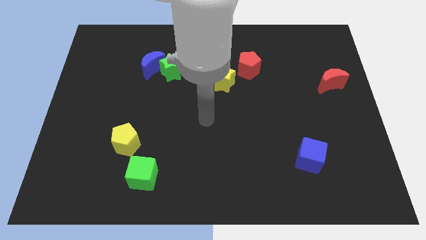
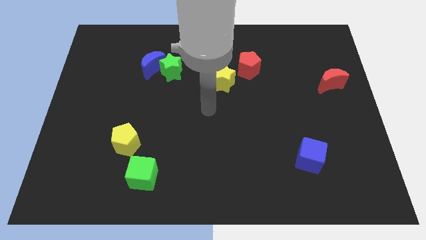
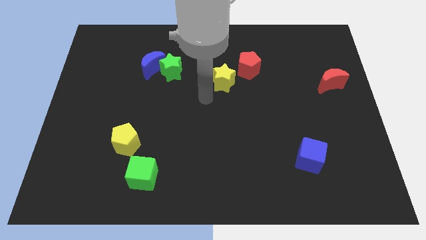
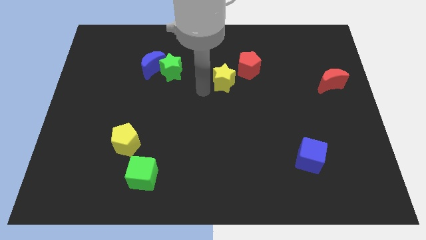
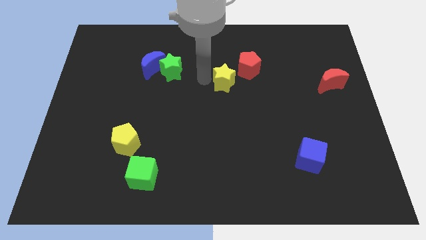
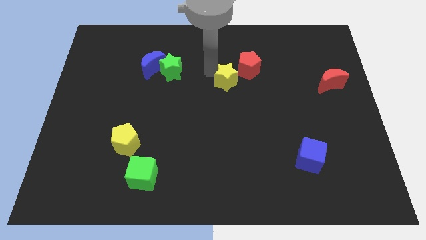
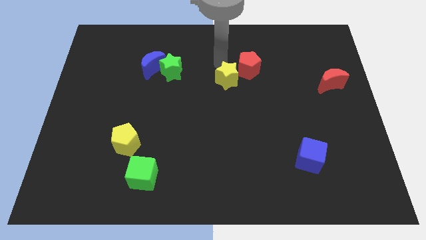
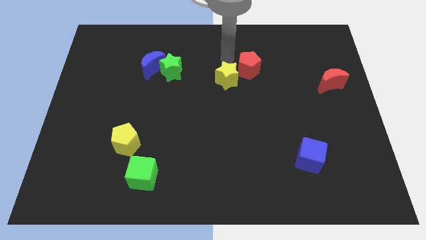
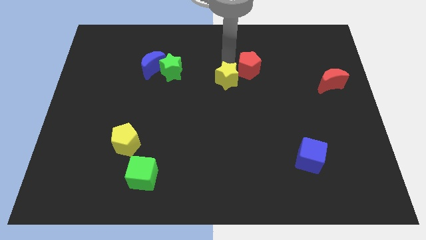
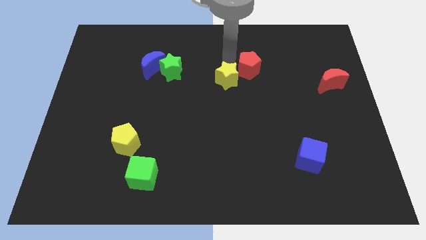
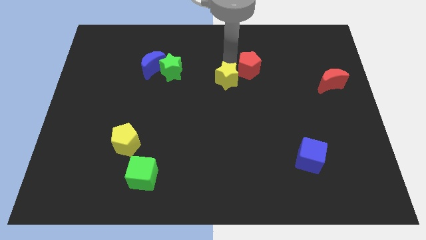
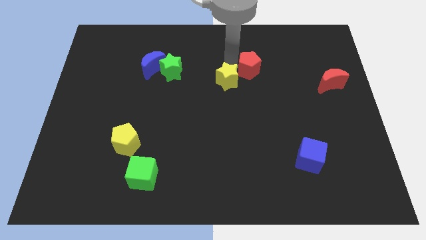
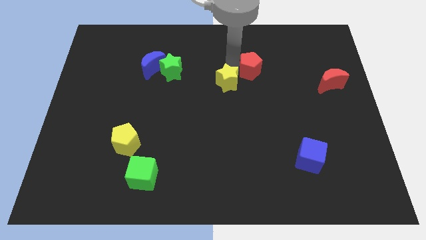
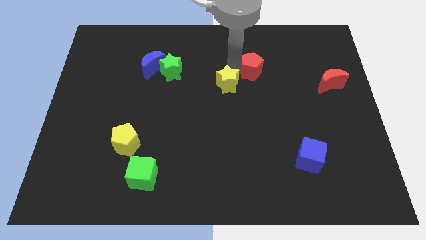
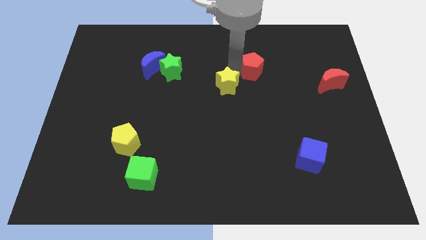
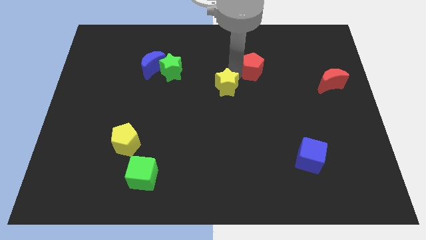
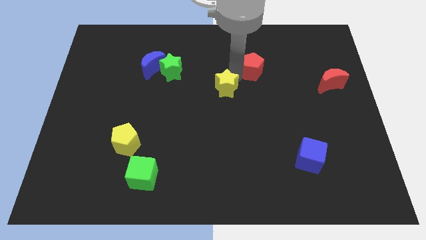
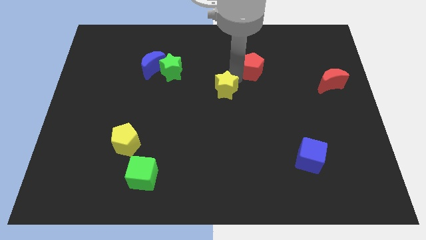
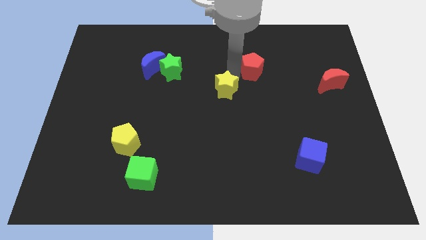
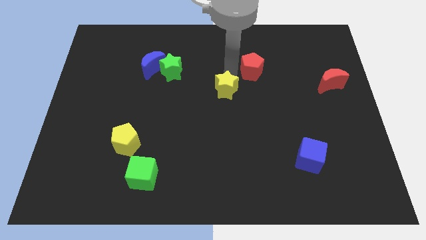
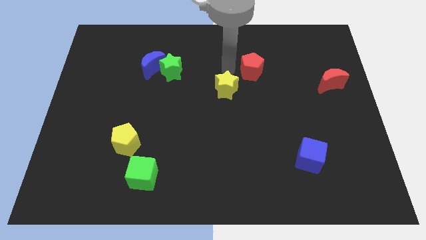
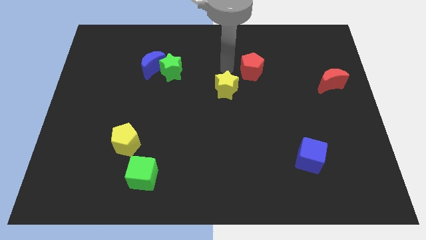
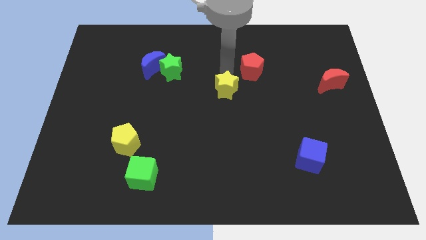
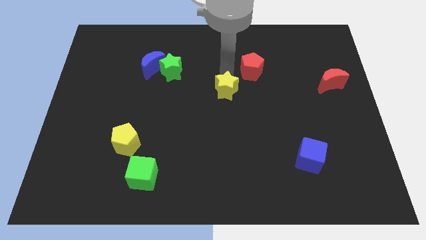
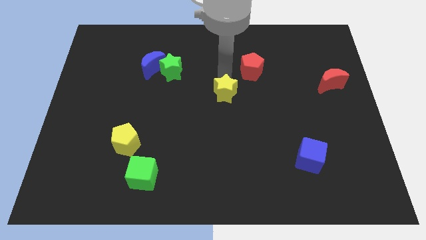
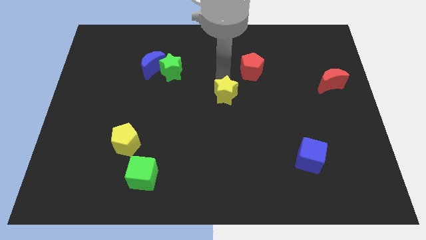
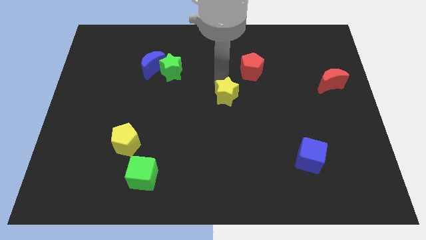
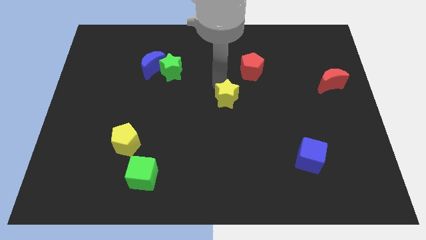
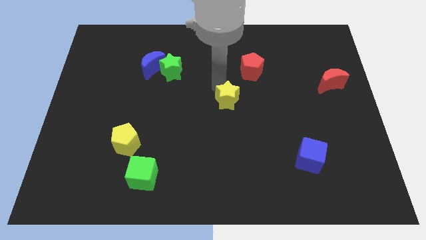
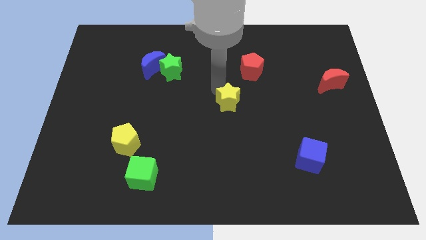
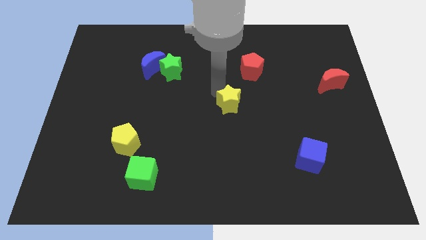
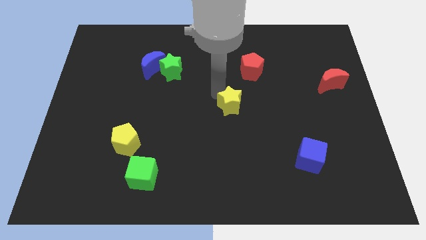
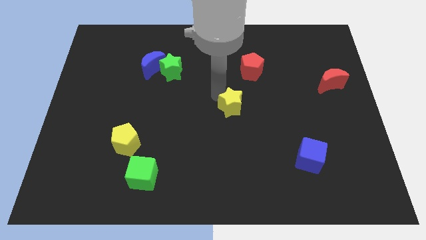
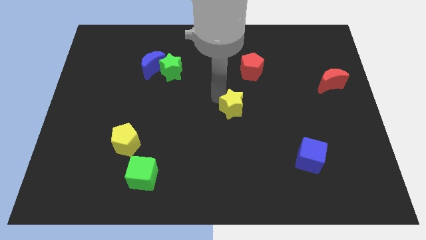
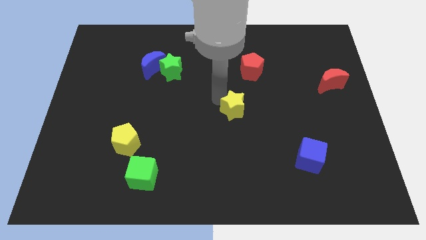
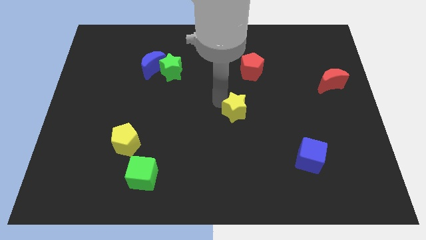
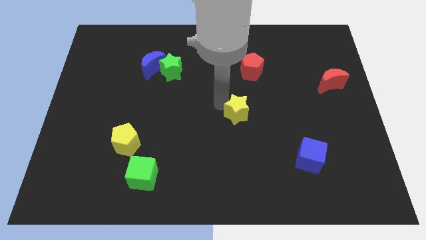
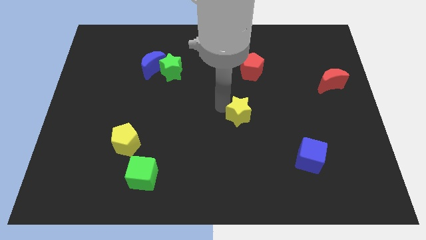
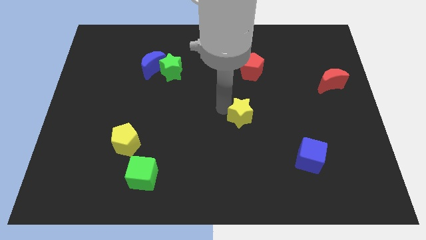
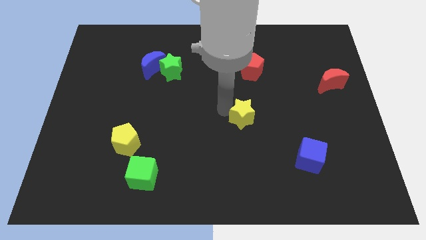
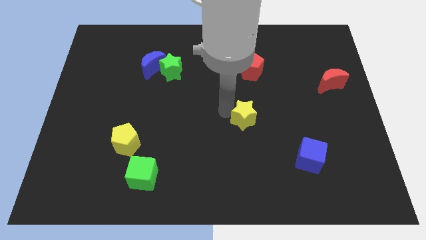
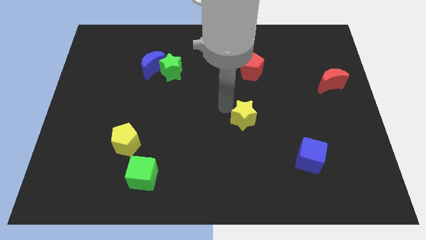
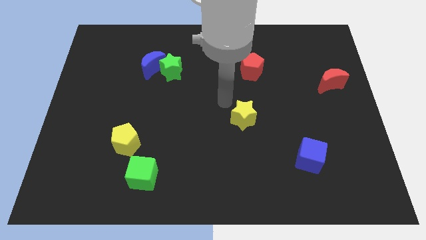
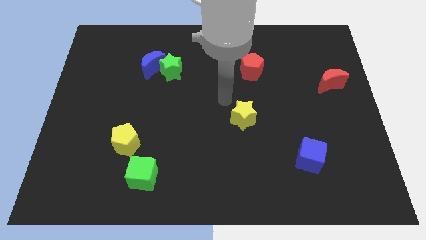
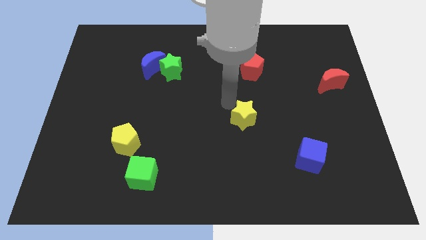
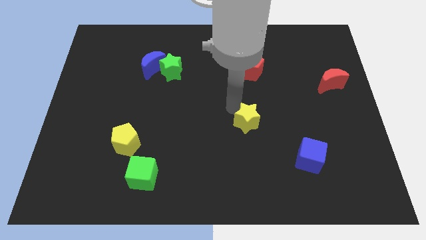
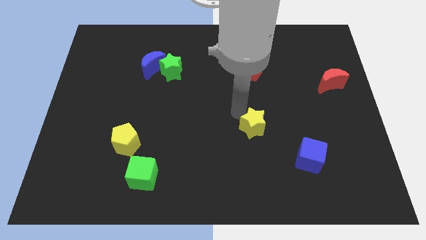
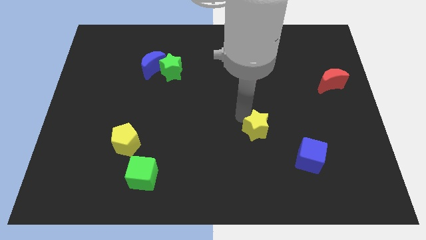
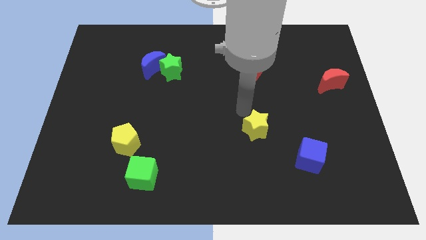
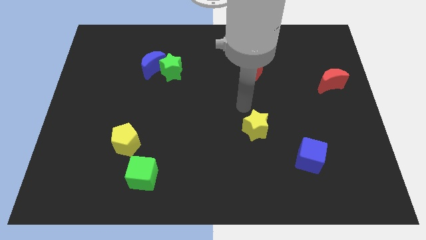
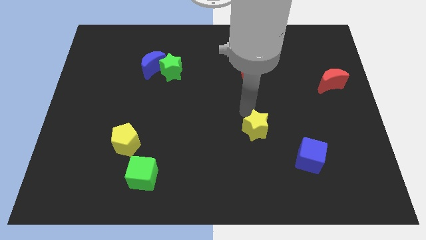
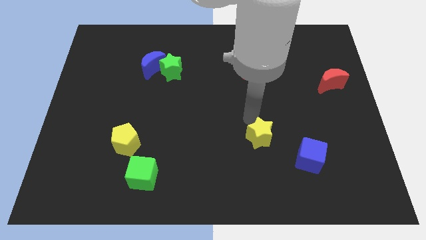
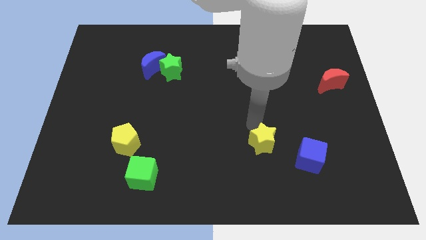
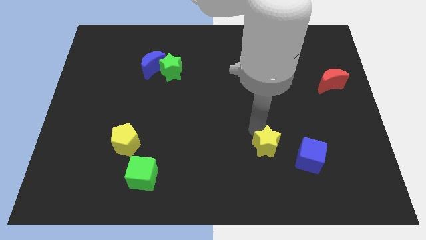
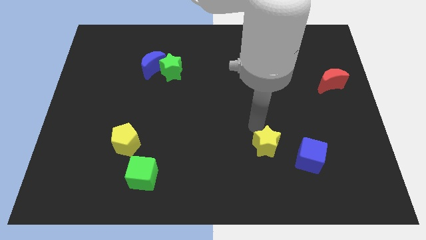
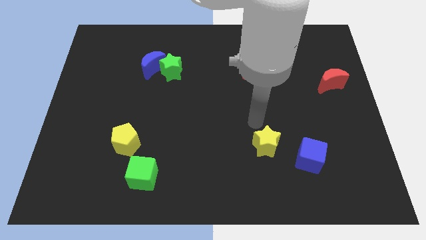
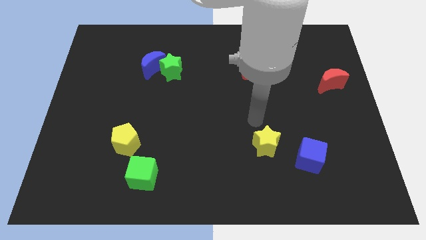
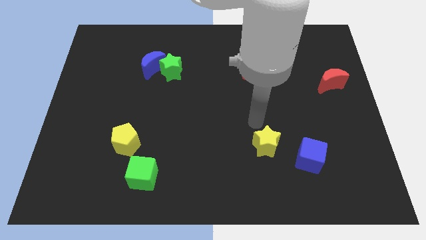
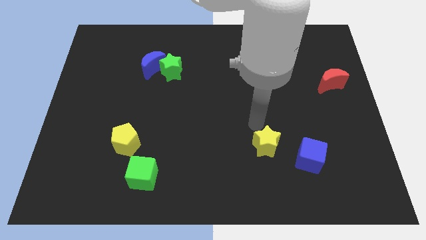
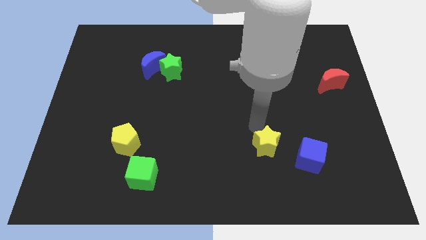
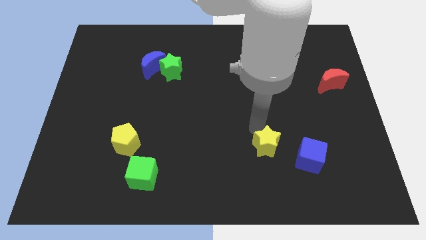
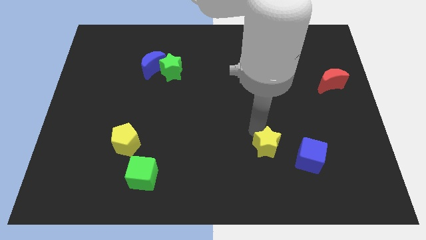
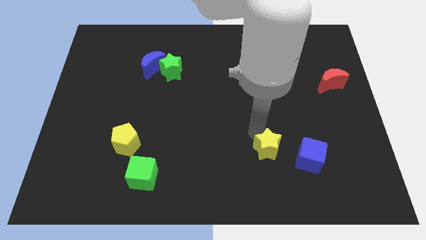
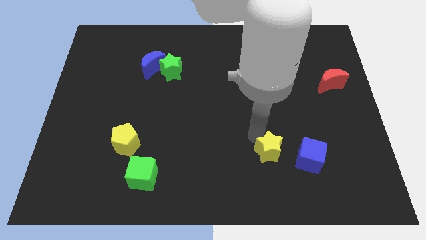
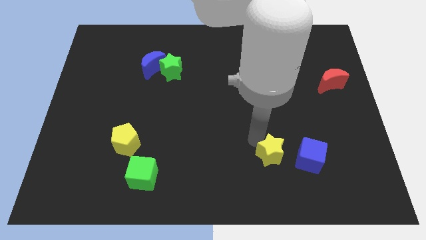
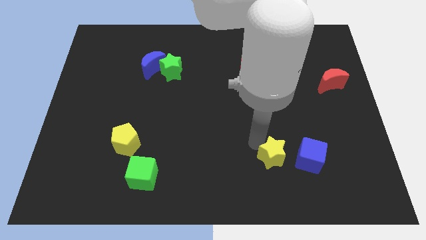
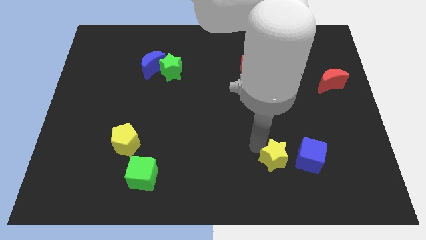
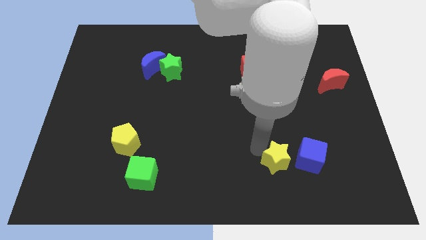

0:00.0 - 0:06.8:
slide the yellow star to the bottom left of the blue cube

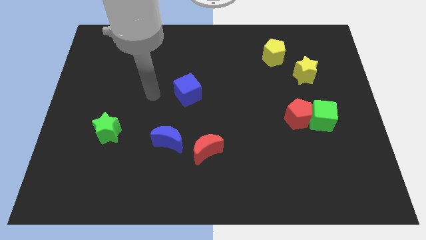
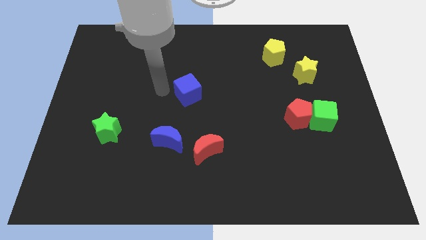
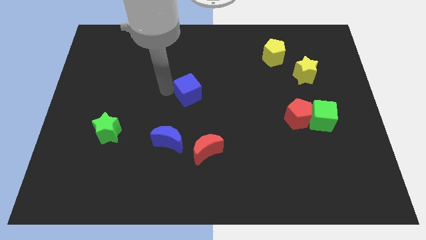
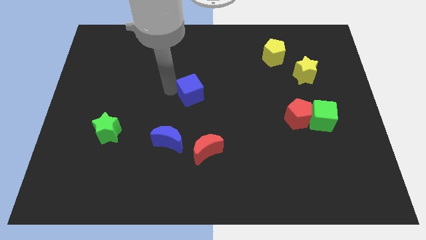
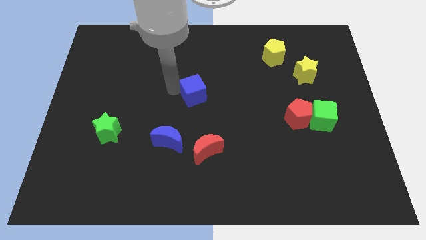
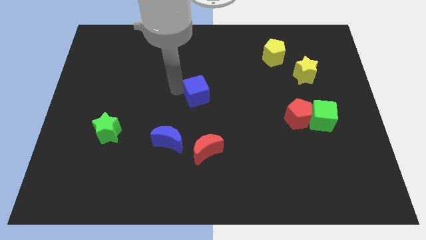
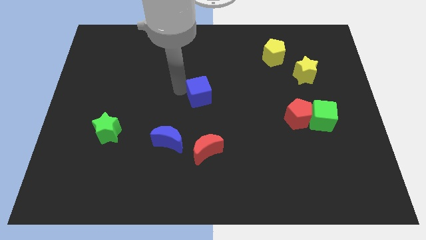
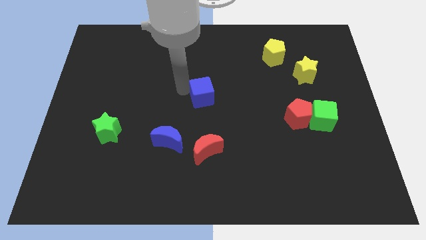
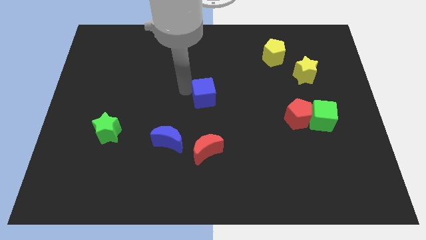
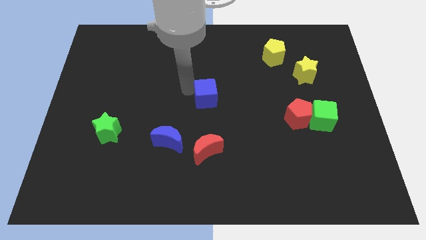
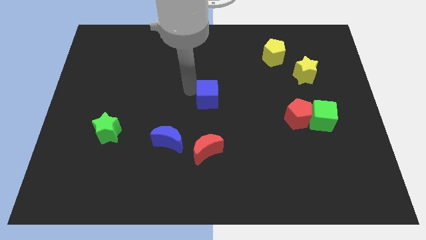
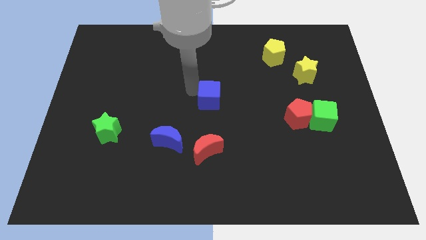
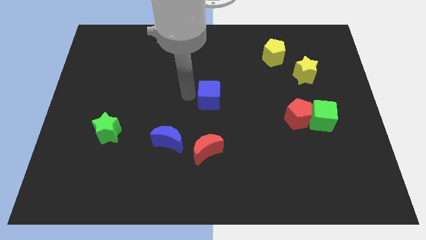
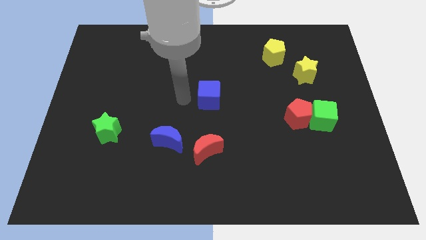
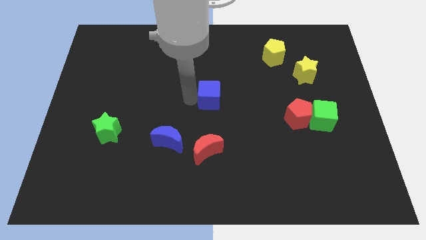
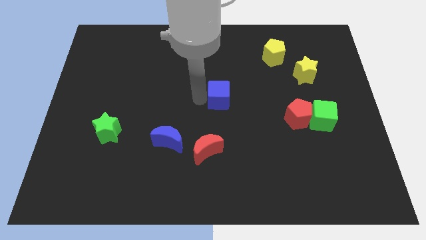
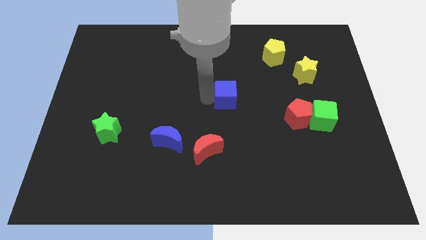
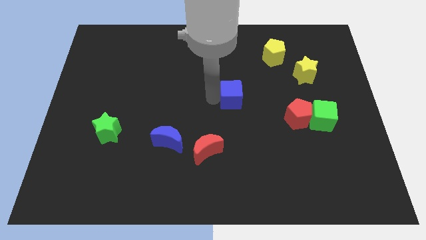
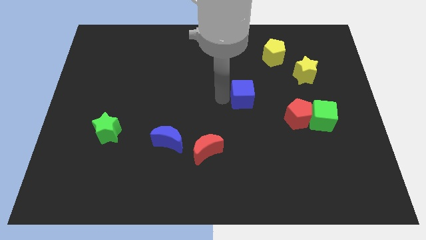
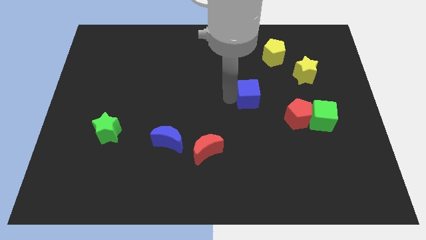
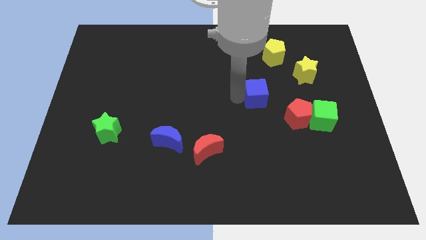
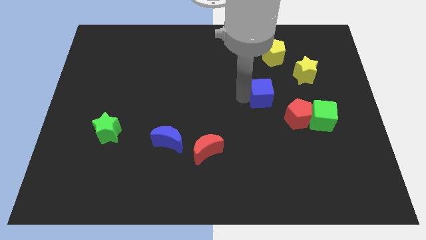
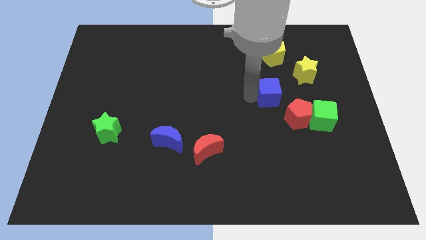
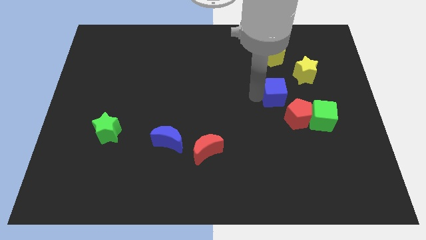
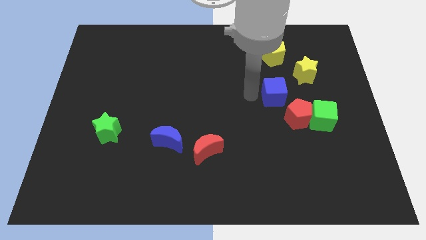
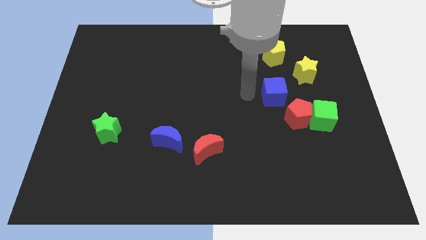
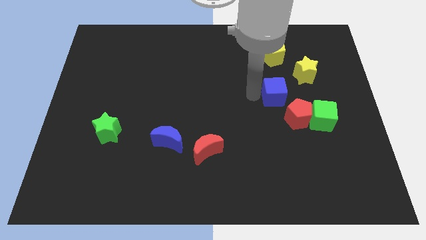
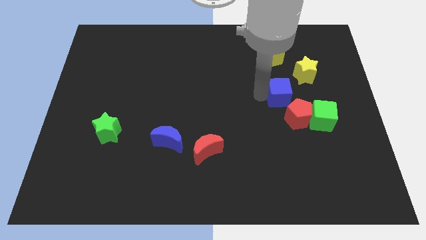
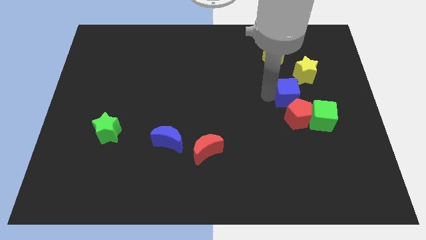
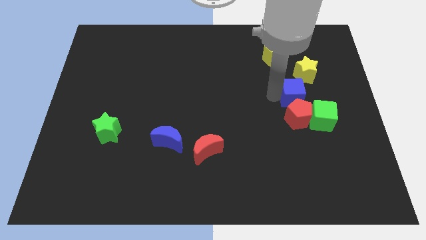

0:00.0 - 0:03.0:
move the blue cube diagonally up and to the right of the red pentagon
